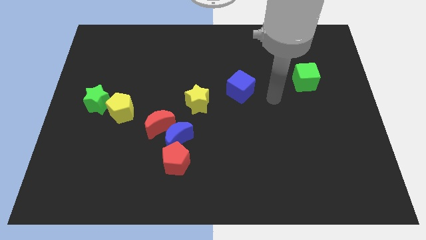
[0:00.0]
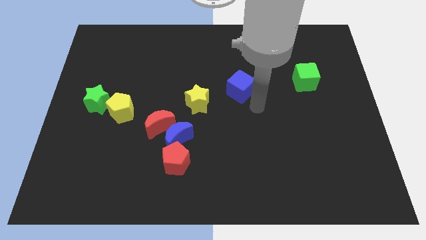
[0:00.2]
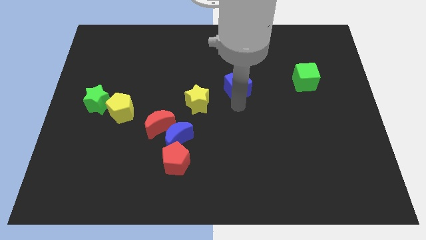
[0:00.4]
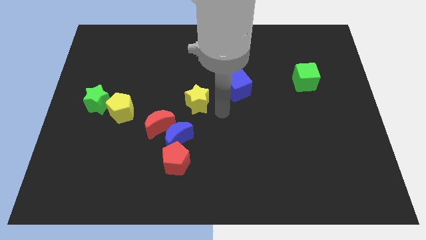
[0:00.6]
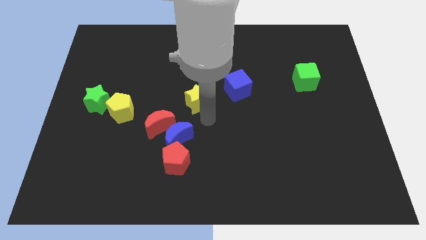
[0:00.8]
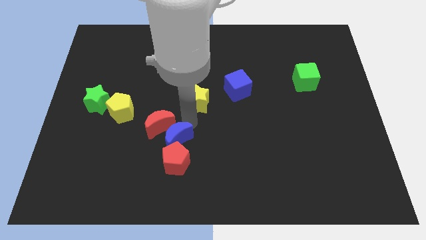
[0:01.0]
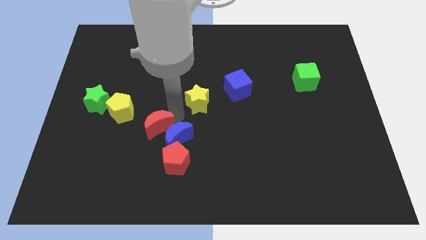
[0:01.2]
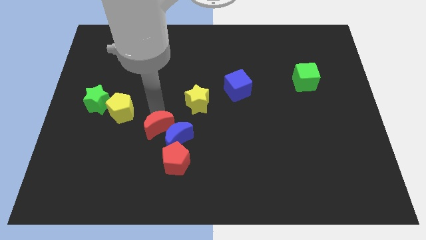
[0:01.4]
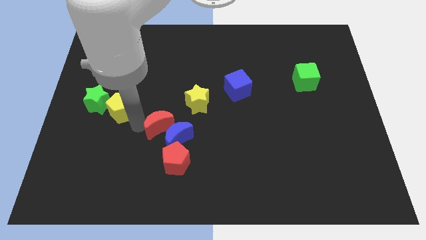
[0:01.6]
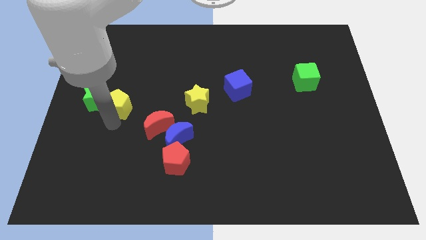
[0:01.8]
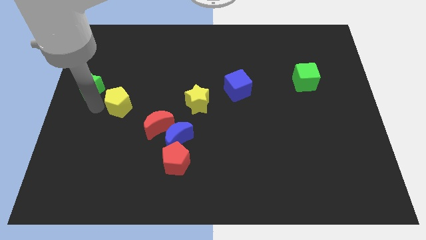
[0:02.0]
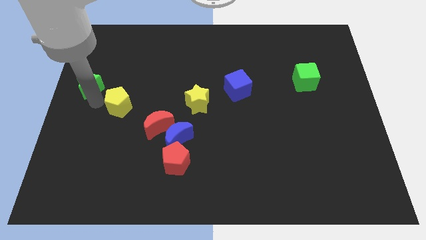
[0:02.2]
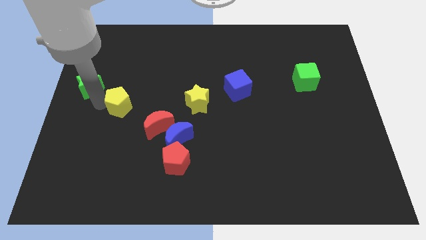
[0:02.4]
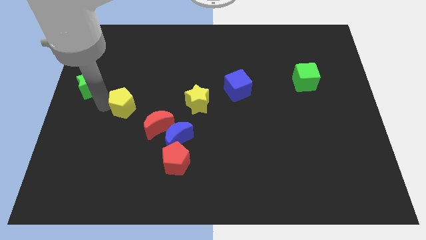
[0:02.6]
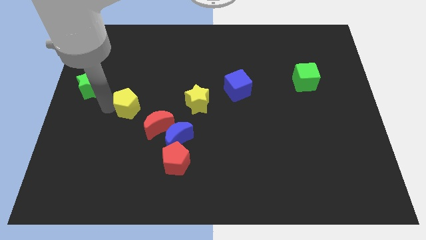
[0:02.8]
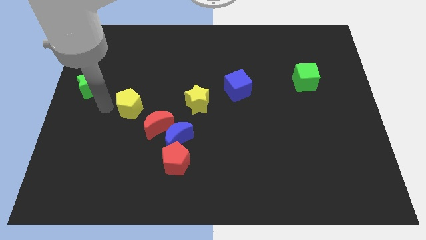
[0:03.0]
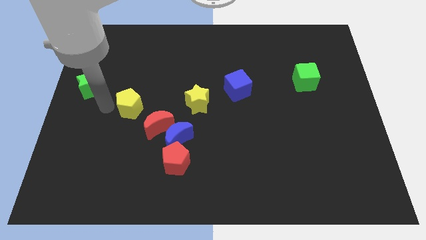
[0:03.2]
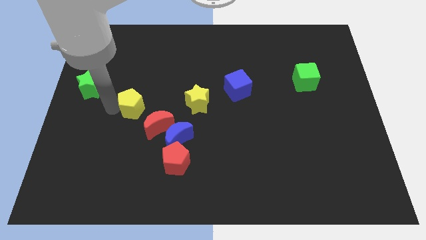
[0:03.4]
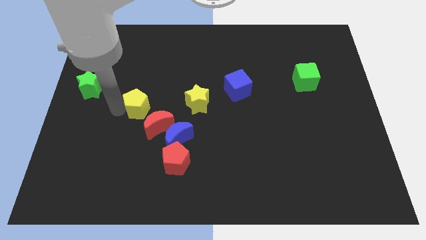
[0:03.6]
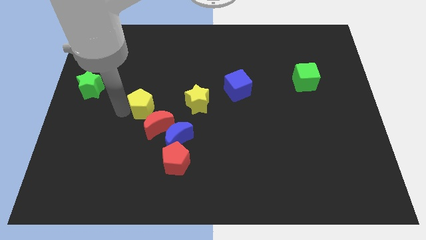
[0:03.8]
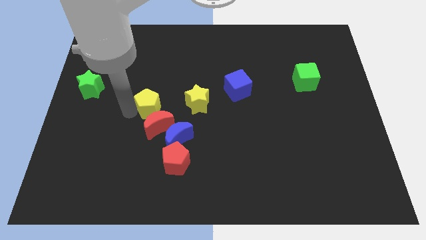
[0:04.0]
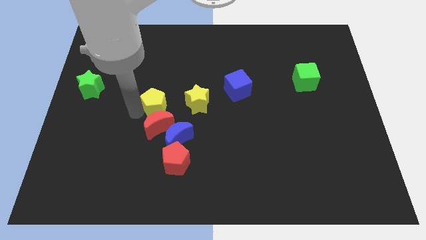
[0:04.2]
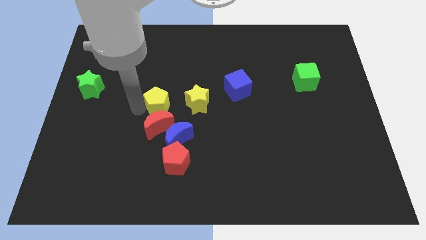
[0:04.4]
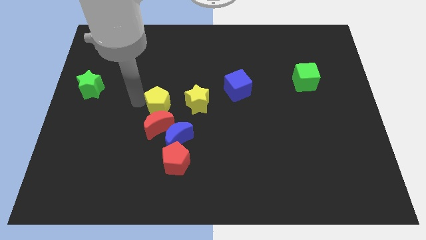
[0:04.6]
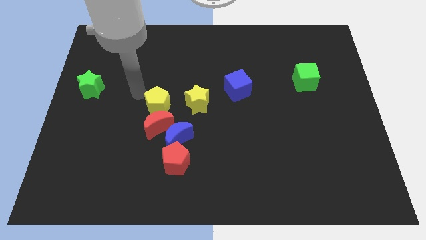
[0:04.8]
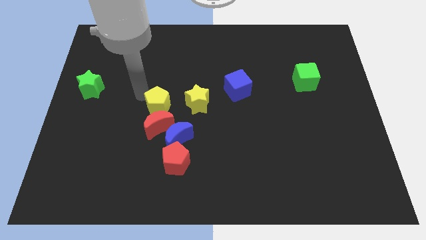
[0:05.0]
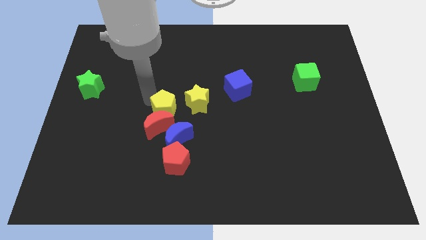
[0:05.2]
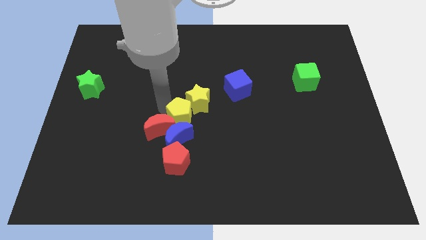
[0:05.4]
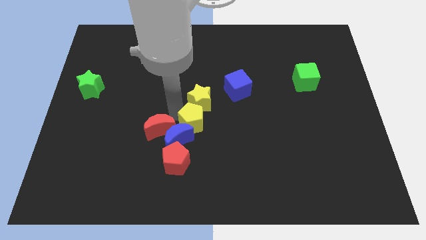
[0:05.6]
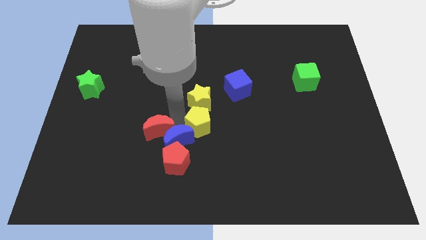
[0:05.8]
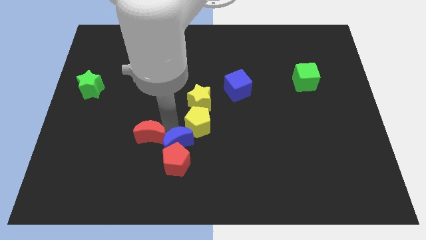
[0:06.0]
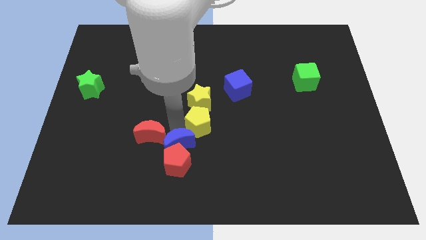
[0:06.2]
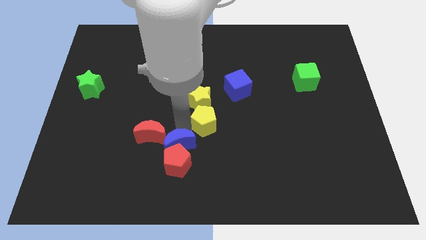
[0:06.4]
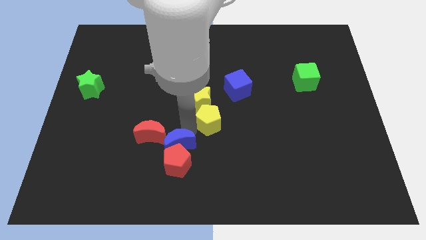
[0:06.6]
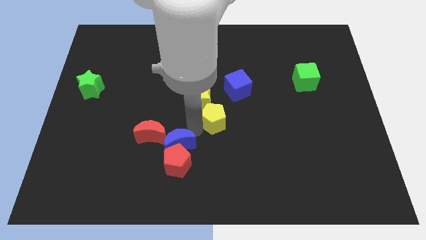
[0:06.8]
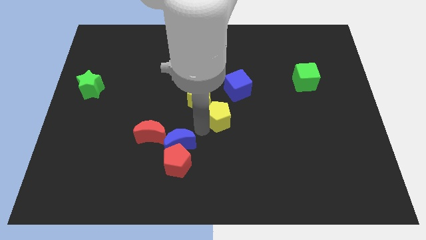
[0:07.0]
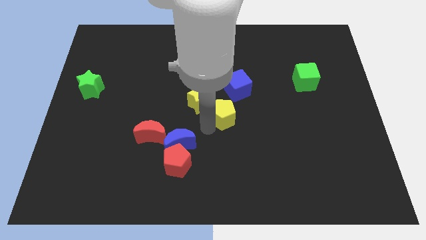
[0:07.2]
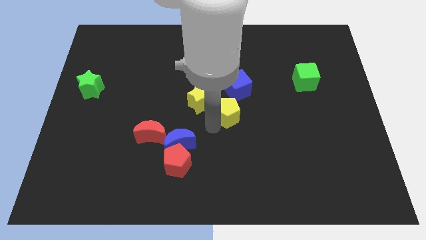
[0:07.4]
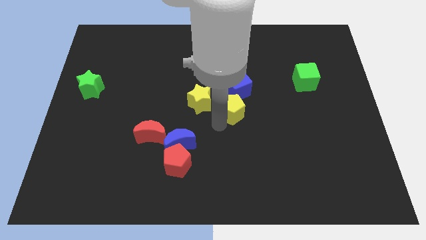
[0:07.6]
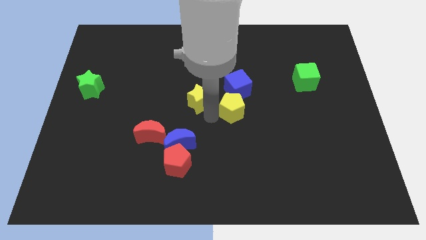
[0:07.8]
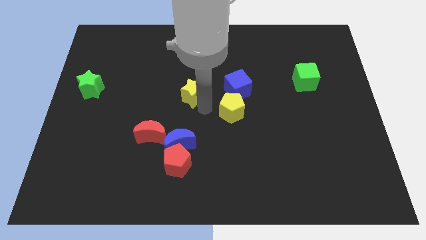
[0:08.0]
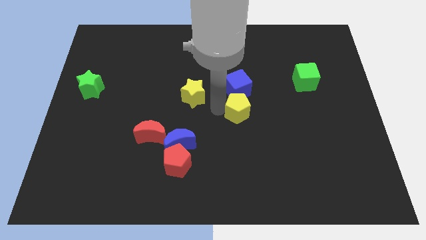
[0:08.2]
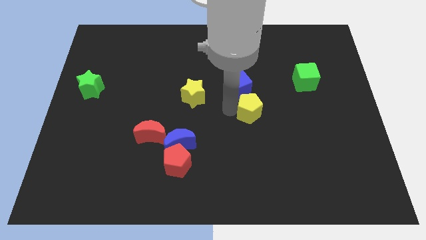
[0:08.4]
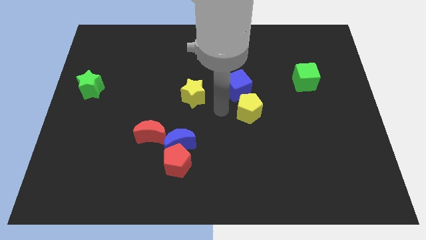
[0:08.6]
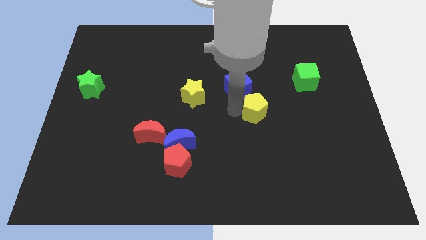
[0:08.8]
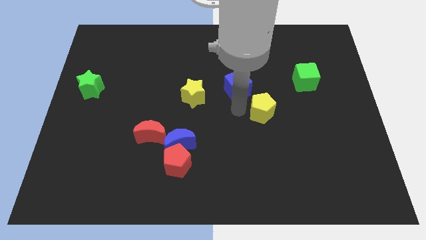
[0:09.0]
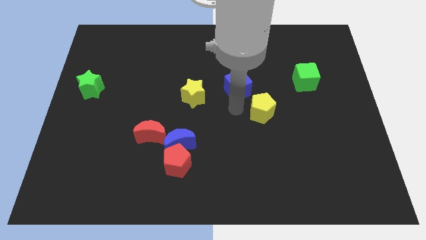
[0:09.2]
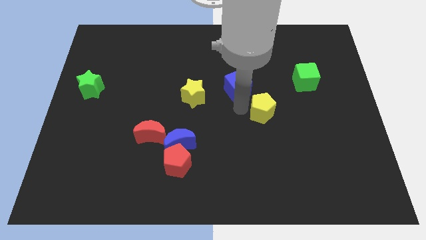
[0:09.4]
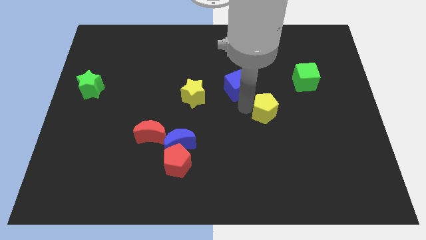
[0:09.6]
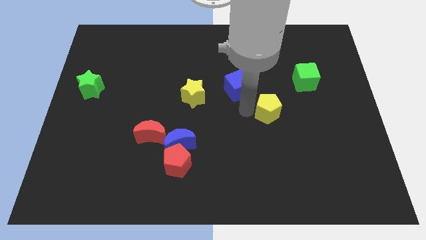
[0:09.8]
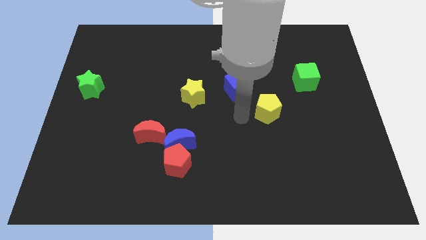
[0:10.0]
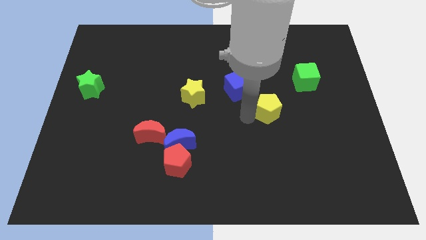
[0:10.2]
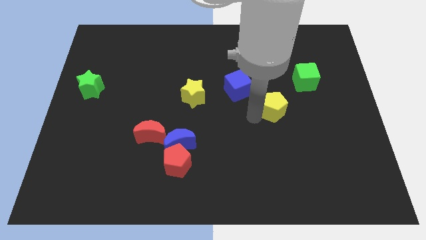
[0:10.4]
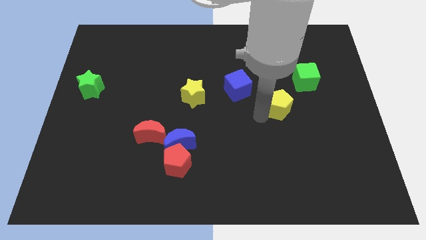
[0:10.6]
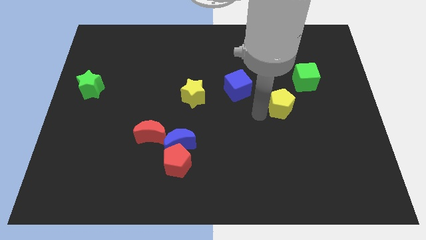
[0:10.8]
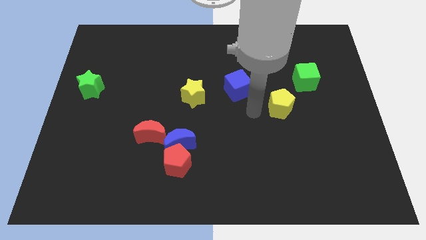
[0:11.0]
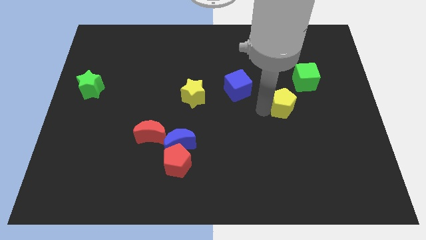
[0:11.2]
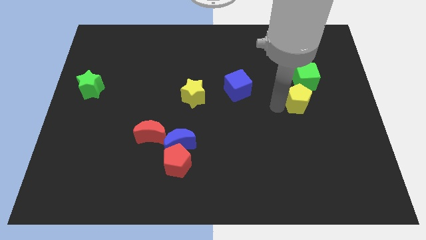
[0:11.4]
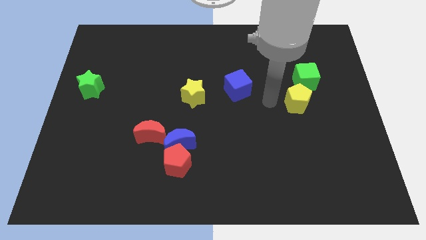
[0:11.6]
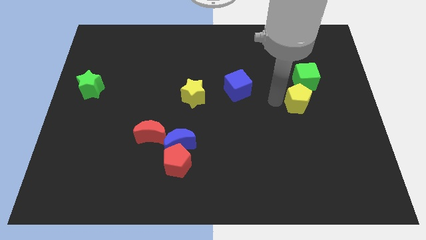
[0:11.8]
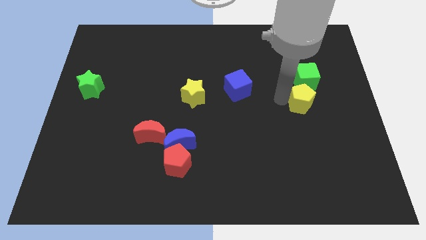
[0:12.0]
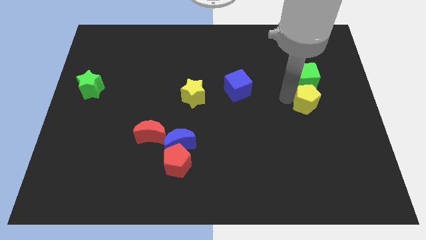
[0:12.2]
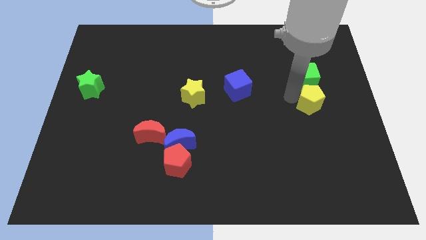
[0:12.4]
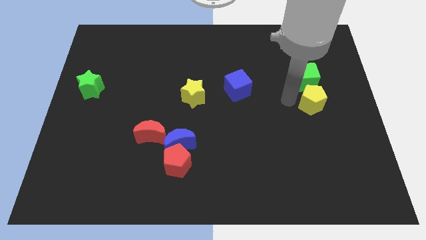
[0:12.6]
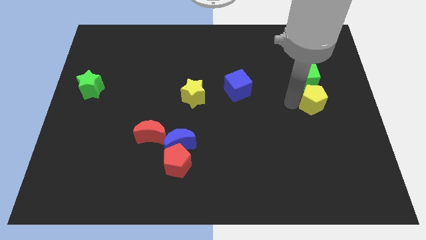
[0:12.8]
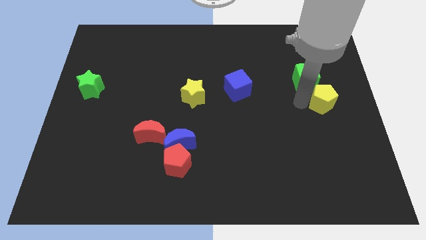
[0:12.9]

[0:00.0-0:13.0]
slide the yellow pentagon to the right side
